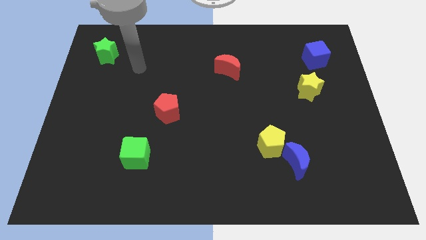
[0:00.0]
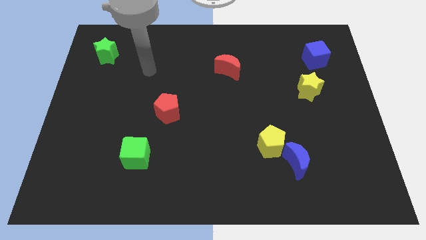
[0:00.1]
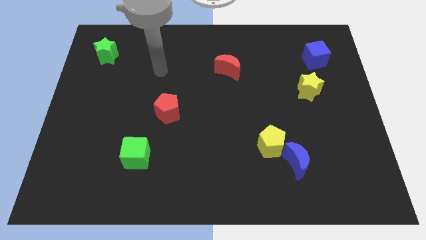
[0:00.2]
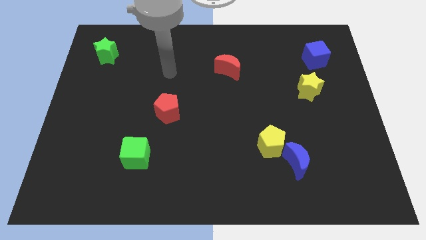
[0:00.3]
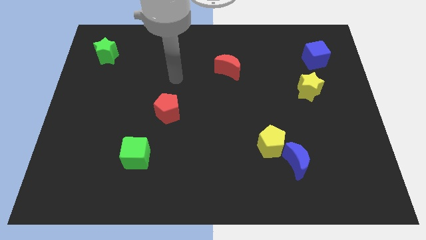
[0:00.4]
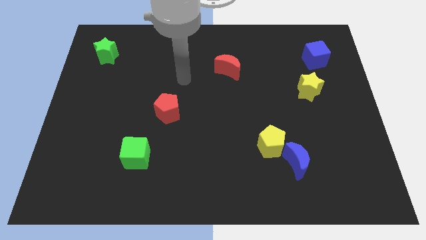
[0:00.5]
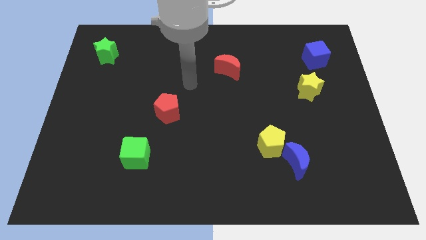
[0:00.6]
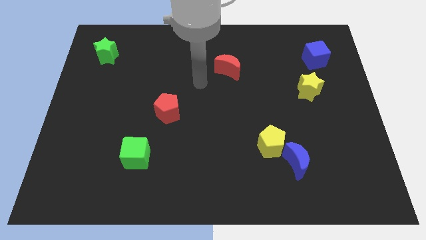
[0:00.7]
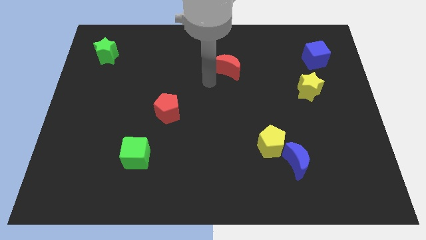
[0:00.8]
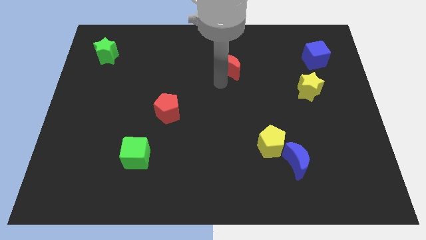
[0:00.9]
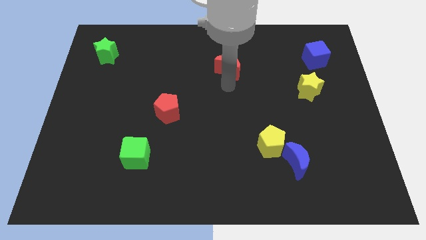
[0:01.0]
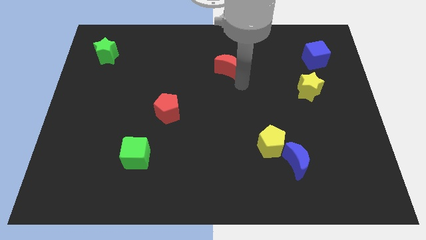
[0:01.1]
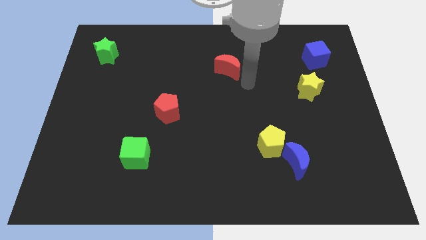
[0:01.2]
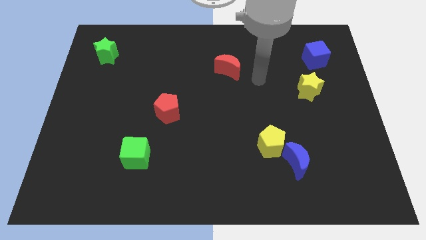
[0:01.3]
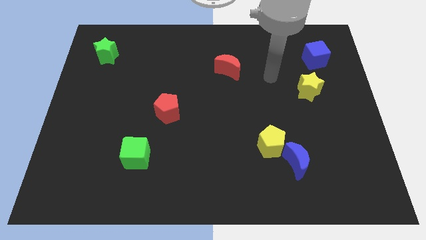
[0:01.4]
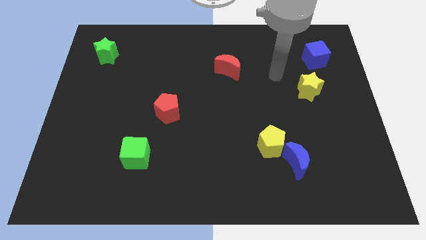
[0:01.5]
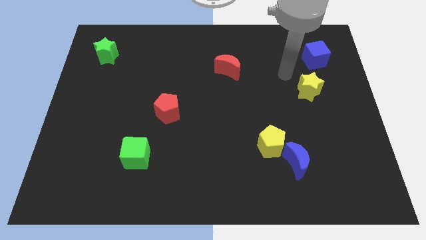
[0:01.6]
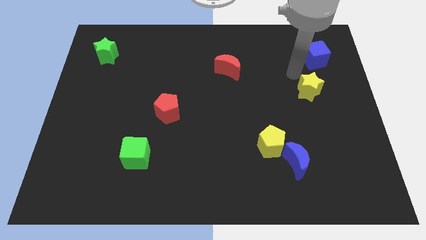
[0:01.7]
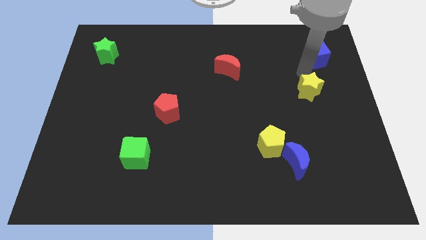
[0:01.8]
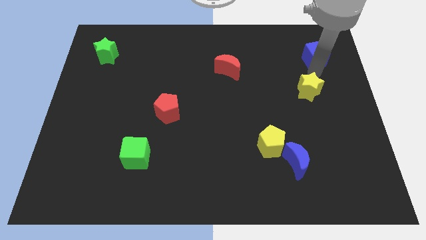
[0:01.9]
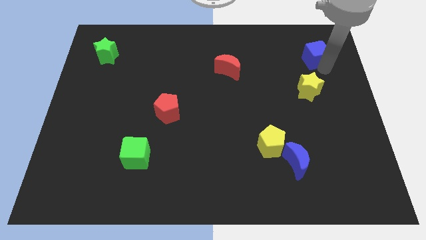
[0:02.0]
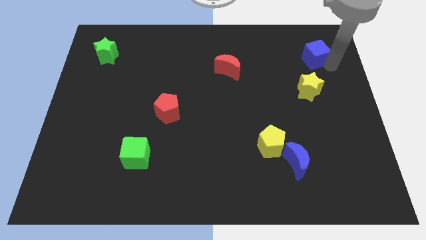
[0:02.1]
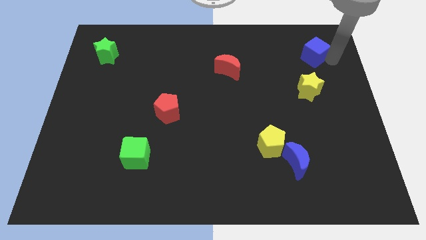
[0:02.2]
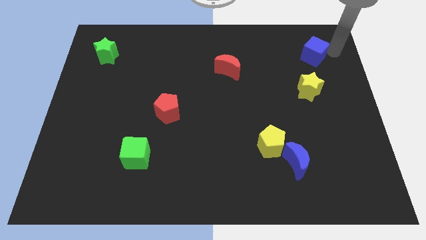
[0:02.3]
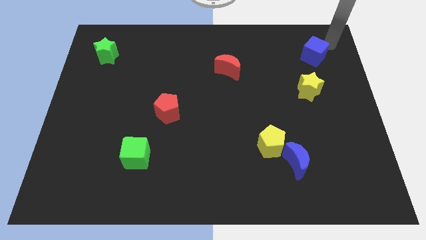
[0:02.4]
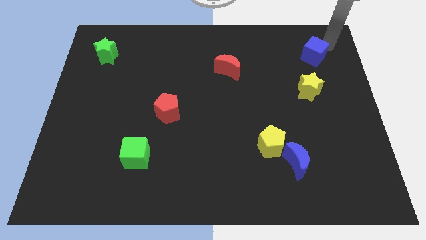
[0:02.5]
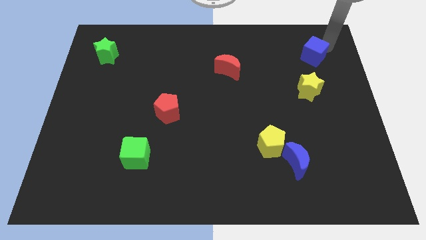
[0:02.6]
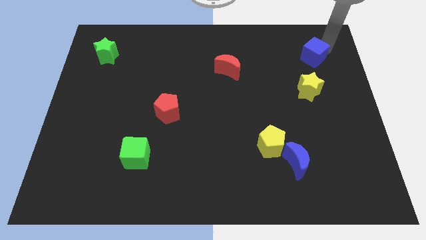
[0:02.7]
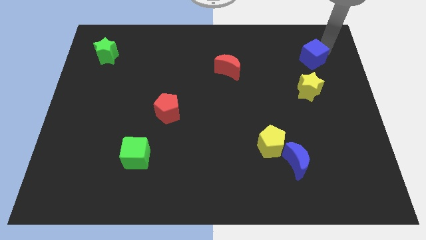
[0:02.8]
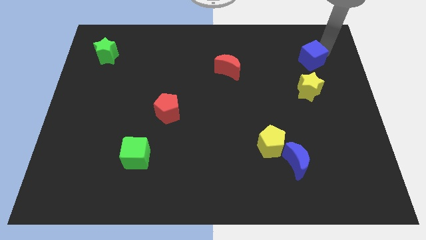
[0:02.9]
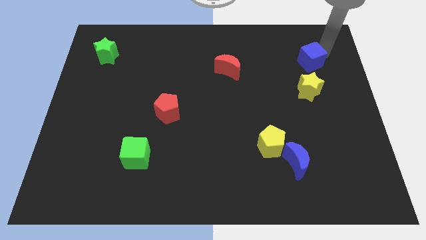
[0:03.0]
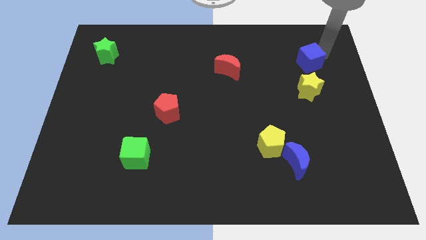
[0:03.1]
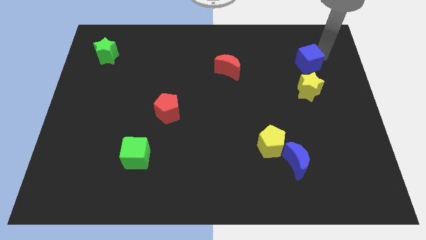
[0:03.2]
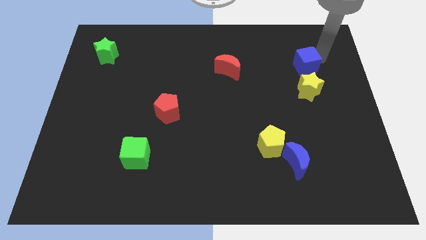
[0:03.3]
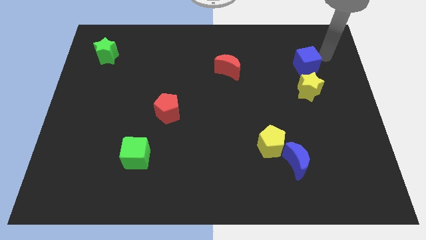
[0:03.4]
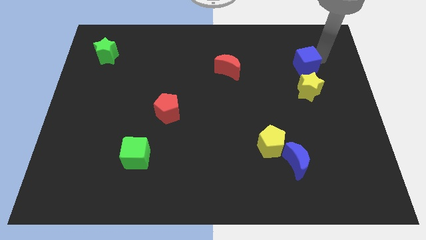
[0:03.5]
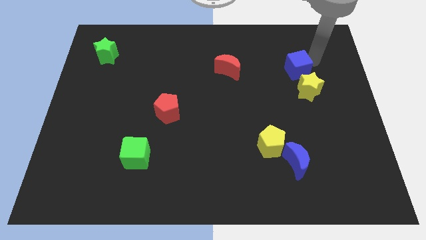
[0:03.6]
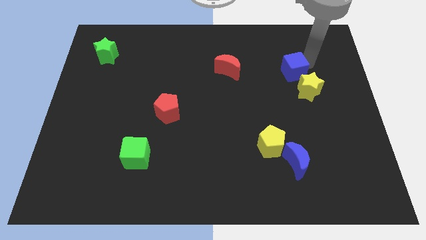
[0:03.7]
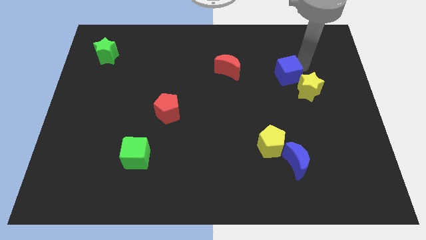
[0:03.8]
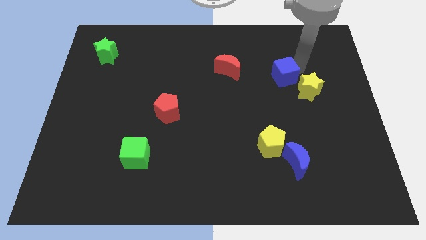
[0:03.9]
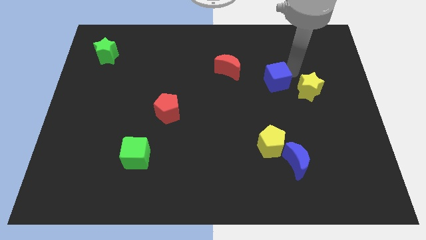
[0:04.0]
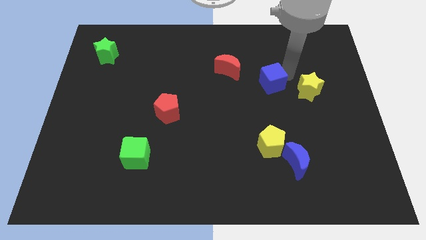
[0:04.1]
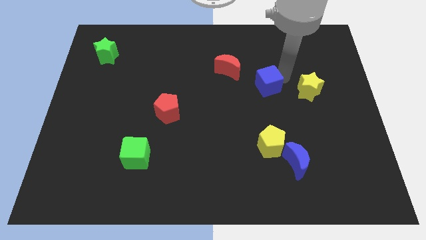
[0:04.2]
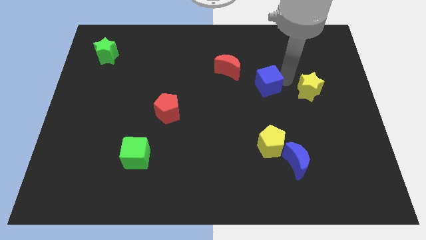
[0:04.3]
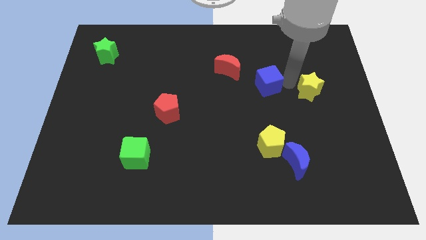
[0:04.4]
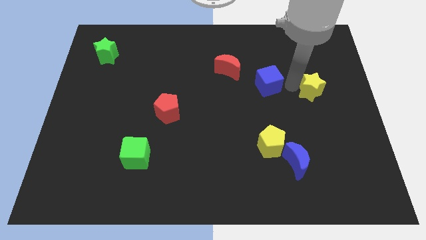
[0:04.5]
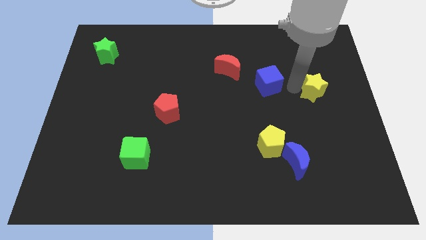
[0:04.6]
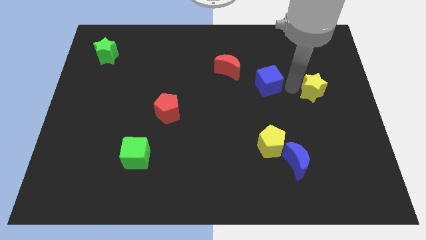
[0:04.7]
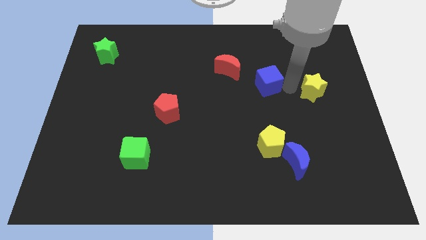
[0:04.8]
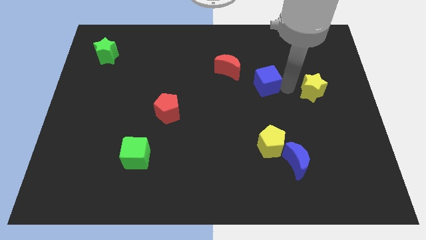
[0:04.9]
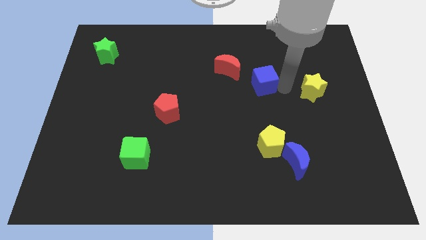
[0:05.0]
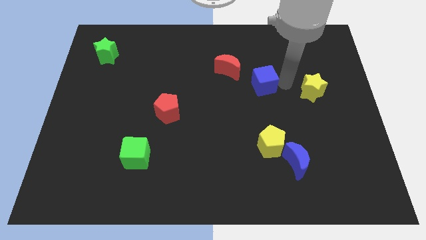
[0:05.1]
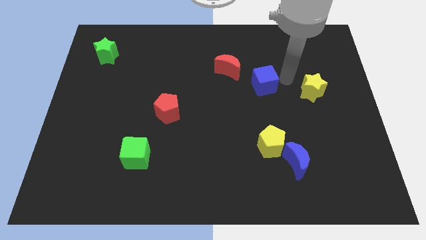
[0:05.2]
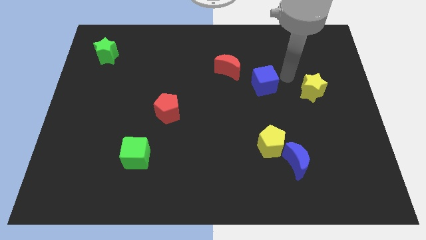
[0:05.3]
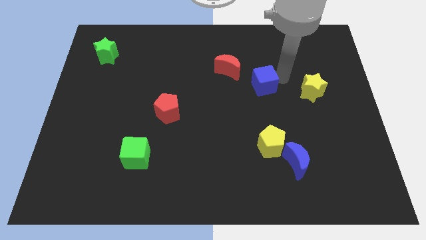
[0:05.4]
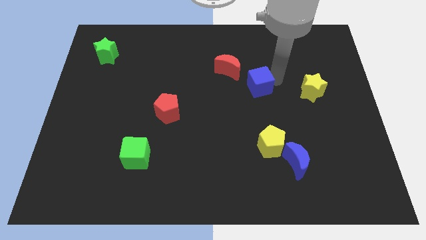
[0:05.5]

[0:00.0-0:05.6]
move the blue cube to the center of the board
